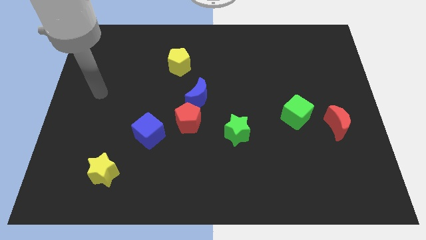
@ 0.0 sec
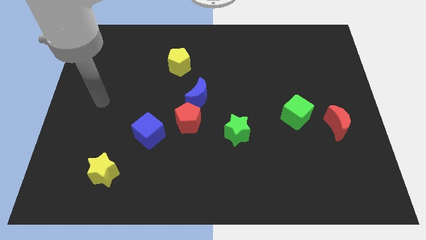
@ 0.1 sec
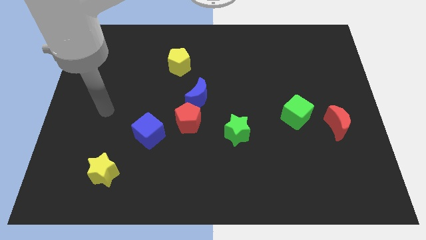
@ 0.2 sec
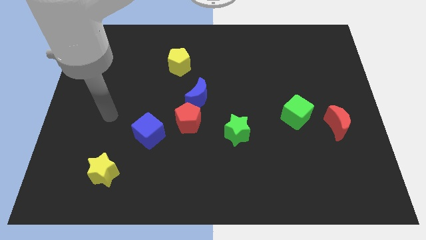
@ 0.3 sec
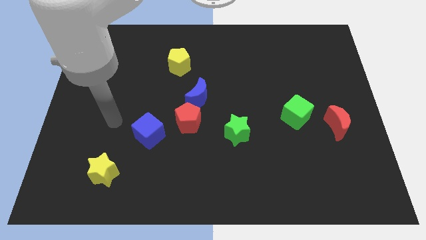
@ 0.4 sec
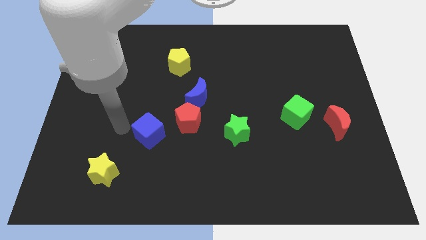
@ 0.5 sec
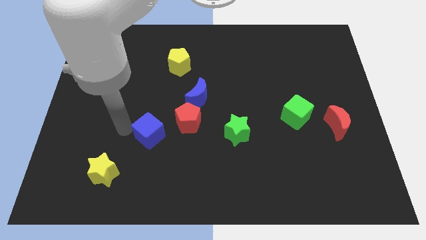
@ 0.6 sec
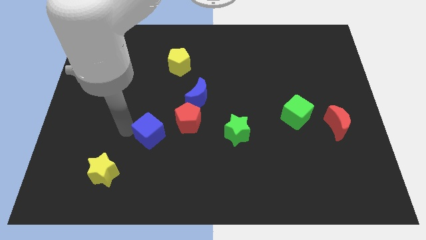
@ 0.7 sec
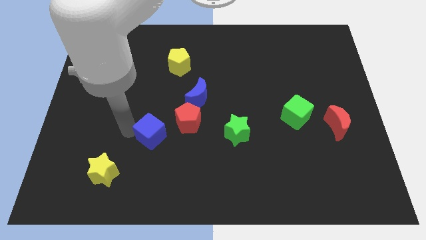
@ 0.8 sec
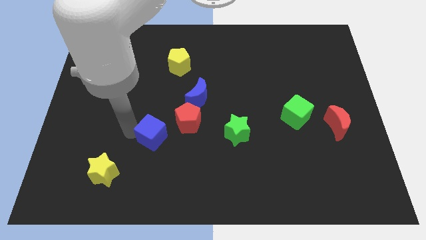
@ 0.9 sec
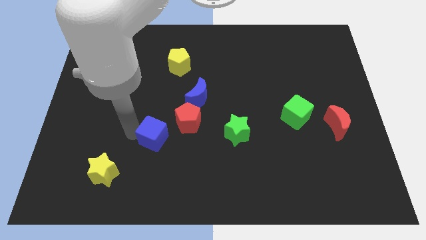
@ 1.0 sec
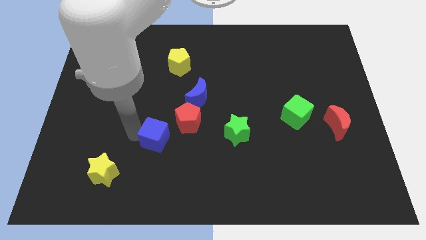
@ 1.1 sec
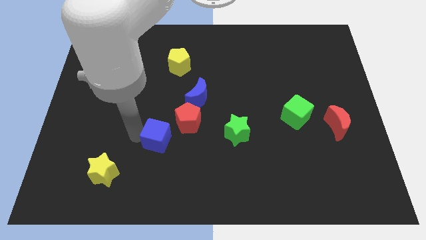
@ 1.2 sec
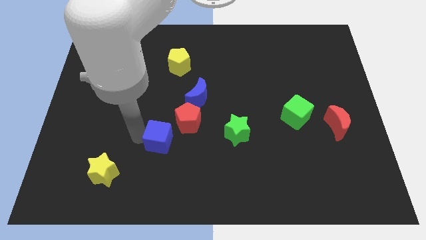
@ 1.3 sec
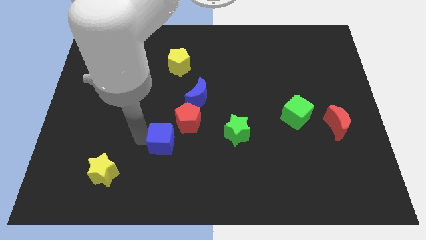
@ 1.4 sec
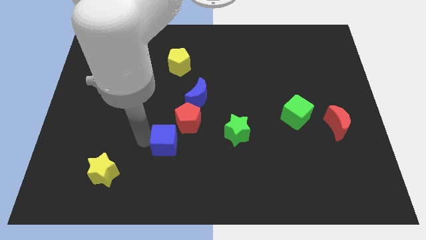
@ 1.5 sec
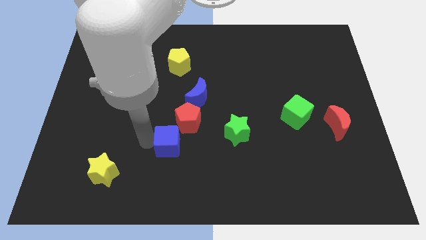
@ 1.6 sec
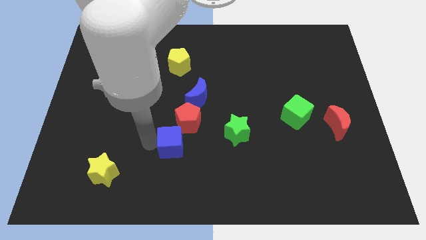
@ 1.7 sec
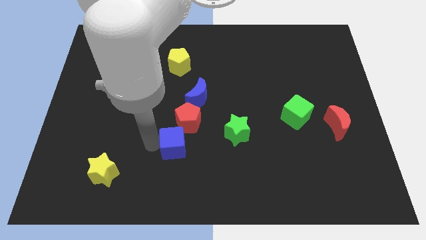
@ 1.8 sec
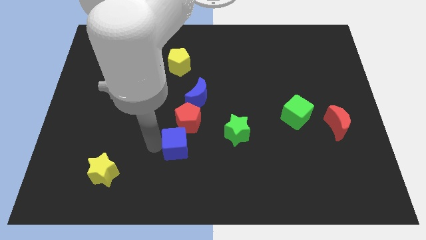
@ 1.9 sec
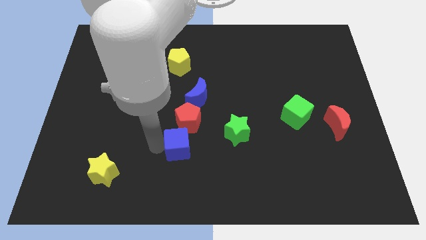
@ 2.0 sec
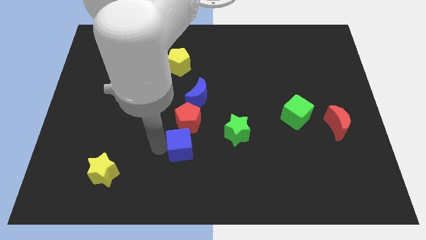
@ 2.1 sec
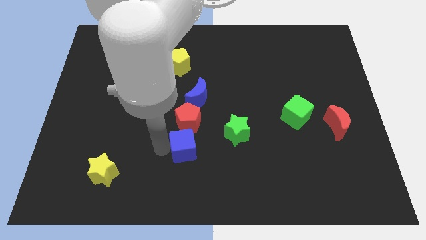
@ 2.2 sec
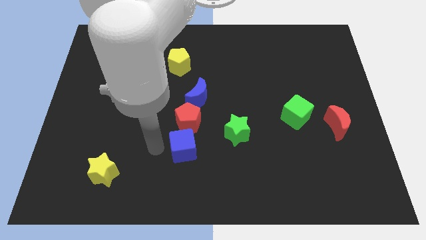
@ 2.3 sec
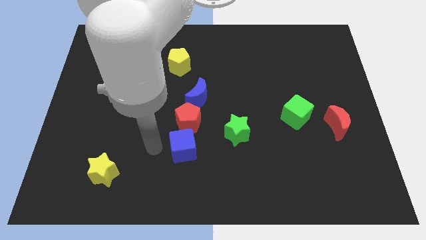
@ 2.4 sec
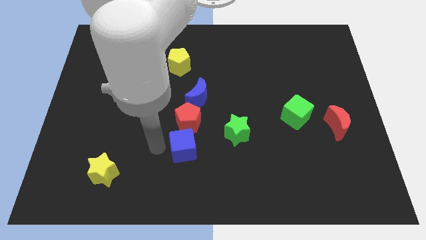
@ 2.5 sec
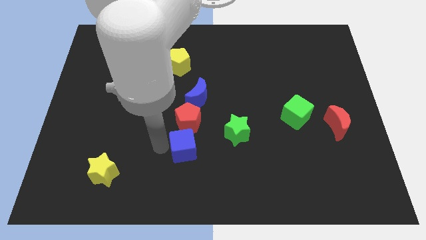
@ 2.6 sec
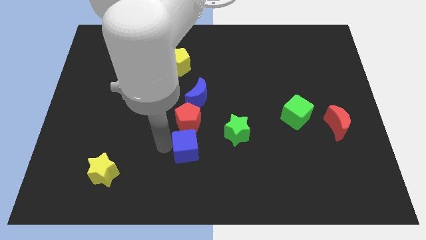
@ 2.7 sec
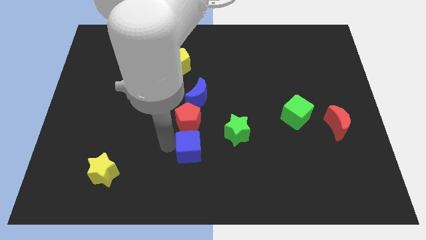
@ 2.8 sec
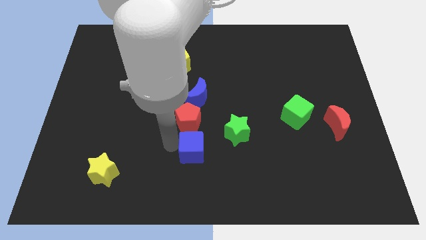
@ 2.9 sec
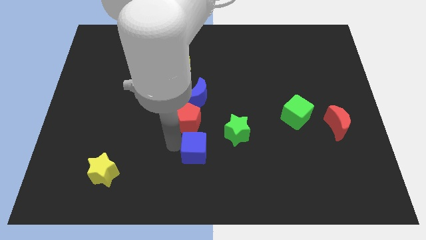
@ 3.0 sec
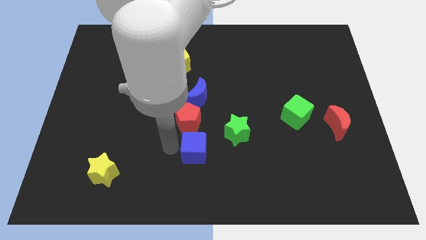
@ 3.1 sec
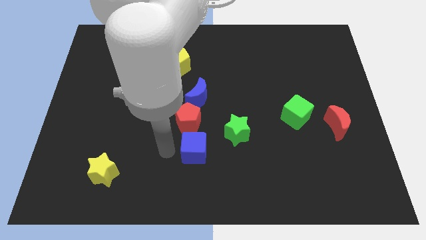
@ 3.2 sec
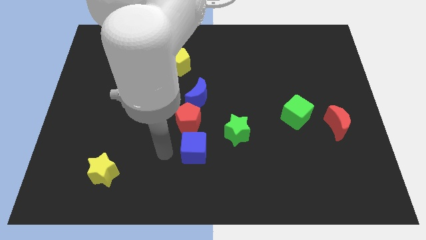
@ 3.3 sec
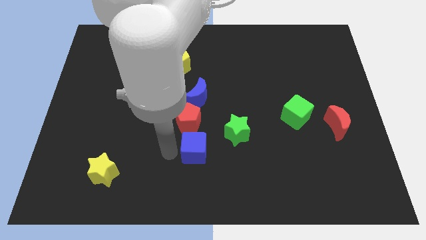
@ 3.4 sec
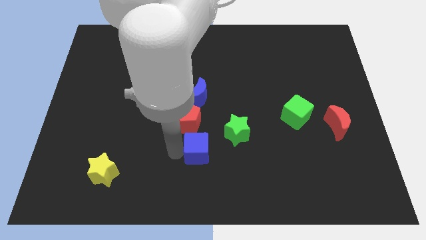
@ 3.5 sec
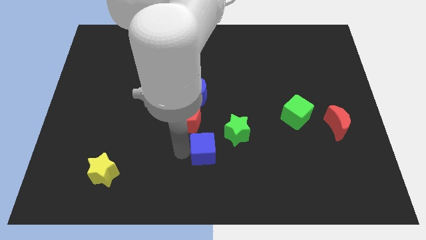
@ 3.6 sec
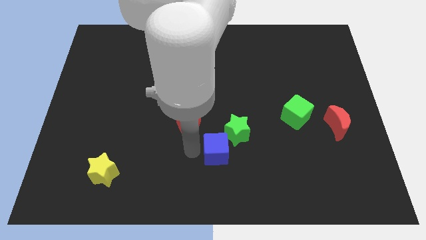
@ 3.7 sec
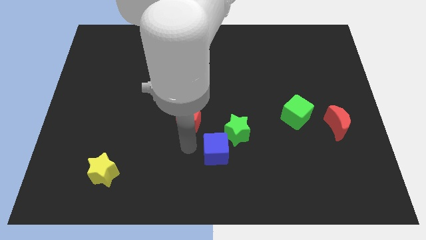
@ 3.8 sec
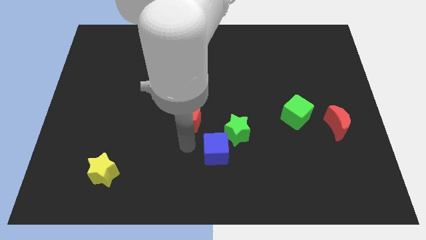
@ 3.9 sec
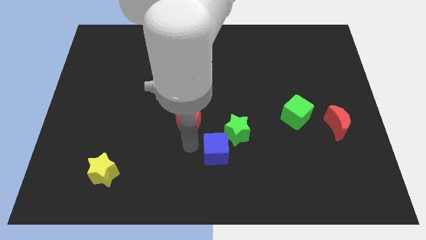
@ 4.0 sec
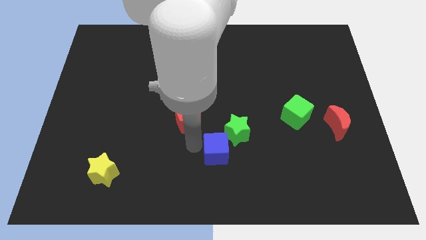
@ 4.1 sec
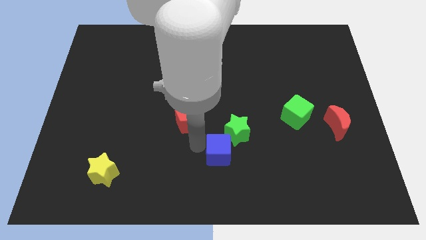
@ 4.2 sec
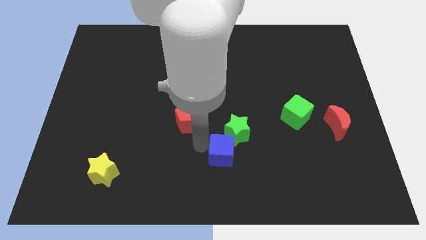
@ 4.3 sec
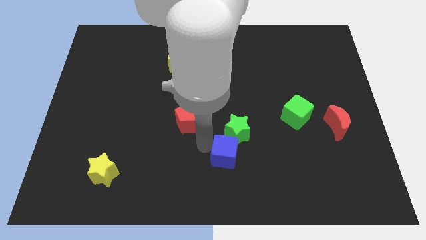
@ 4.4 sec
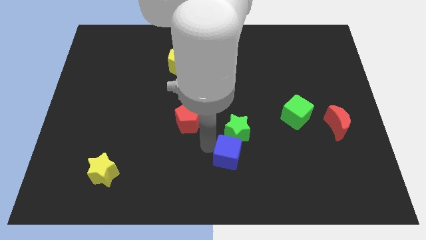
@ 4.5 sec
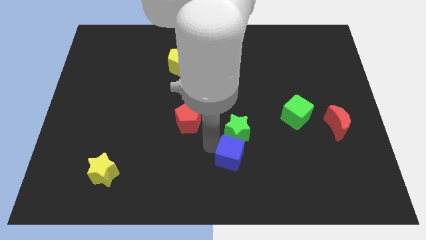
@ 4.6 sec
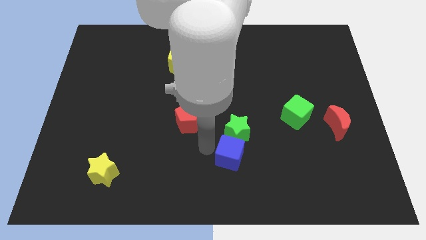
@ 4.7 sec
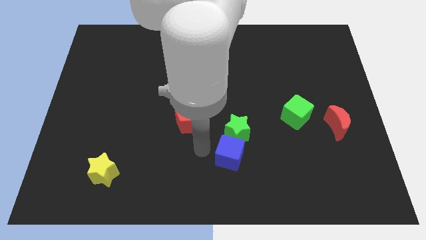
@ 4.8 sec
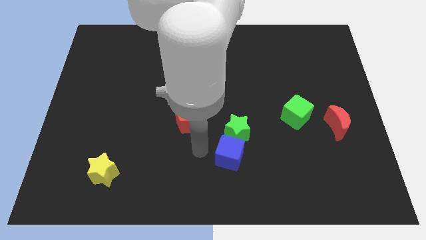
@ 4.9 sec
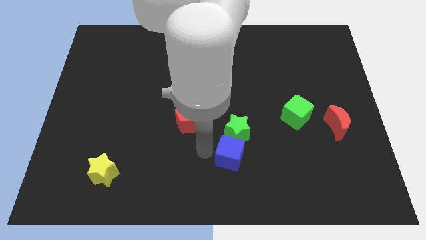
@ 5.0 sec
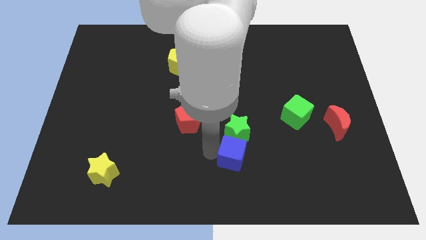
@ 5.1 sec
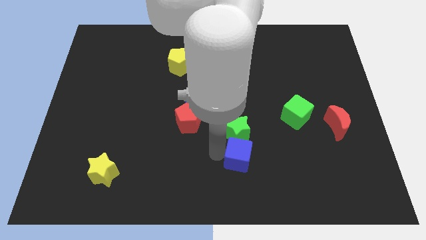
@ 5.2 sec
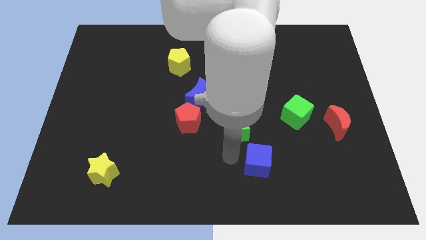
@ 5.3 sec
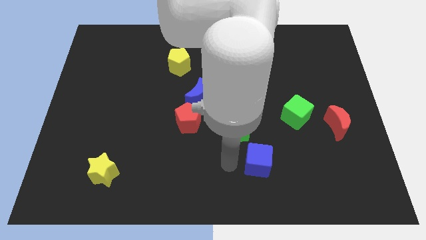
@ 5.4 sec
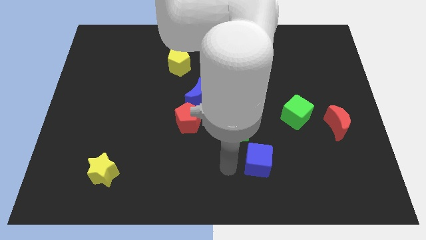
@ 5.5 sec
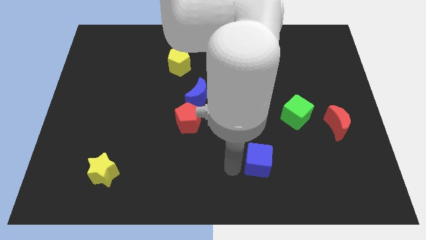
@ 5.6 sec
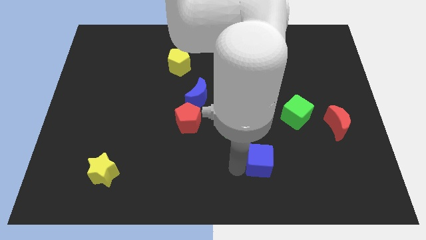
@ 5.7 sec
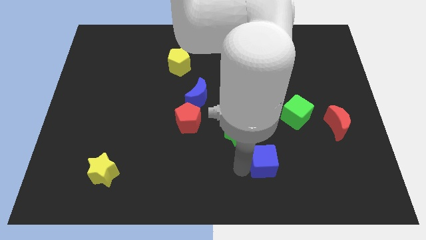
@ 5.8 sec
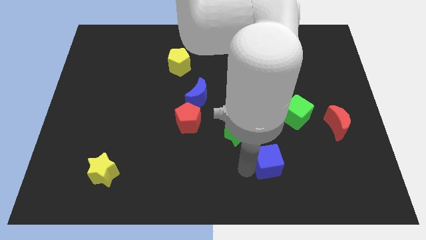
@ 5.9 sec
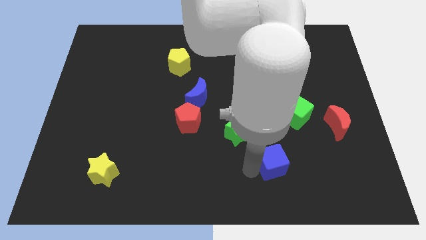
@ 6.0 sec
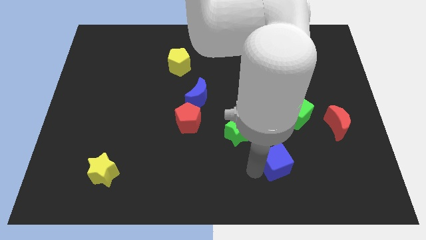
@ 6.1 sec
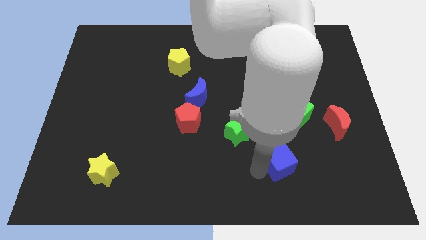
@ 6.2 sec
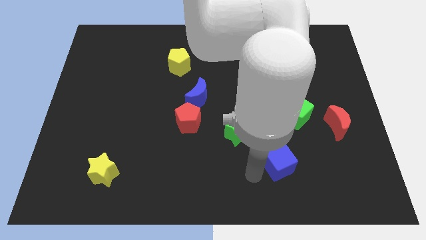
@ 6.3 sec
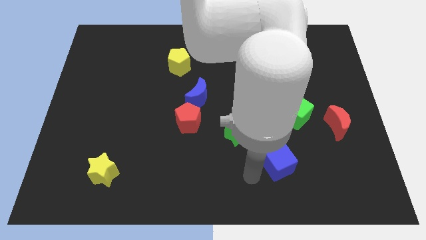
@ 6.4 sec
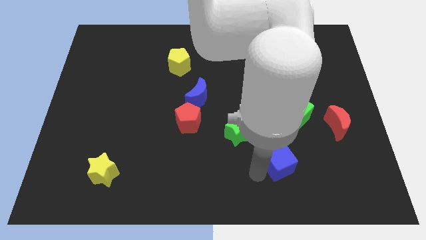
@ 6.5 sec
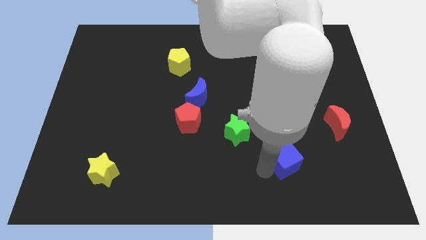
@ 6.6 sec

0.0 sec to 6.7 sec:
slide the blue cube below the green cube

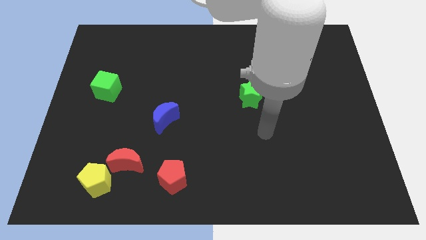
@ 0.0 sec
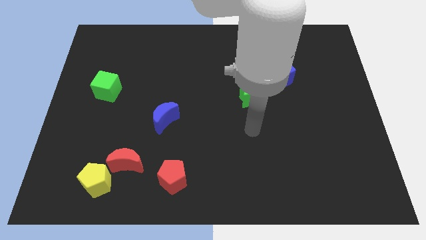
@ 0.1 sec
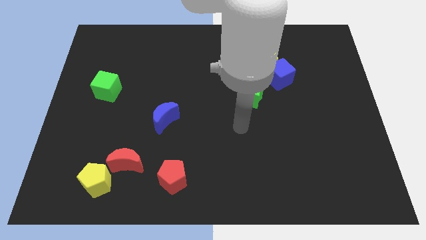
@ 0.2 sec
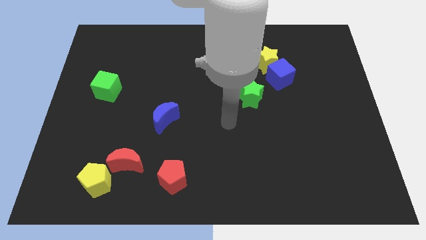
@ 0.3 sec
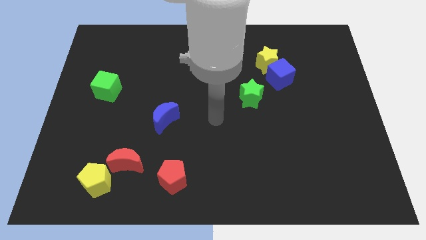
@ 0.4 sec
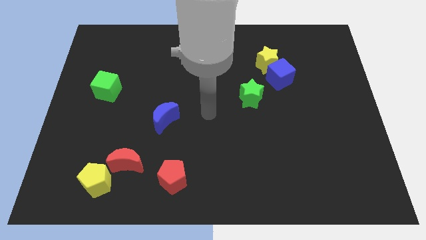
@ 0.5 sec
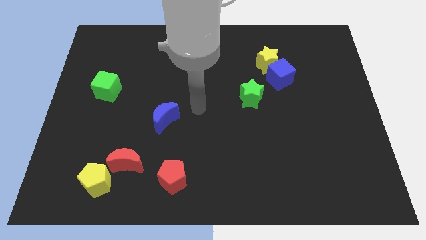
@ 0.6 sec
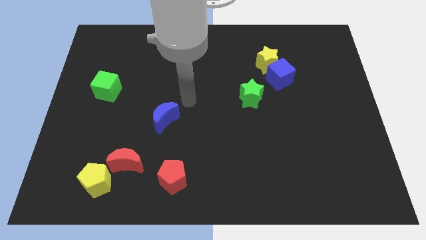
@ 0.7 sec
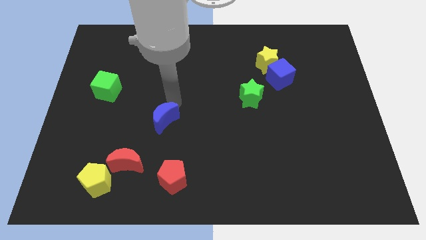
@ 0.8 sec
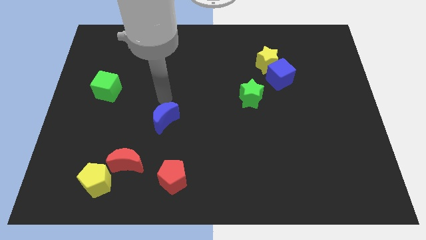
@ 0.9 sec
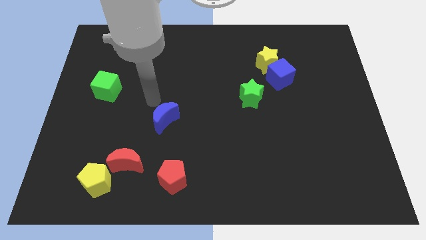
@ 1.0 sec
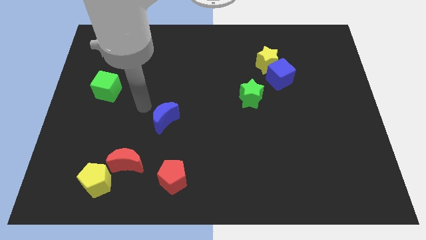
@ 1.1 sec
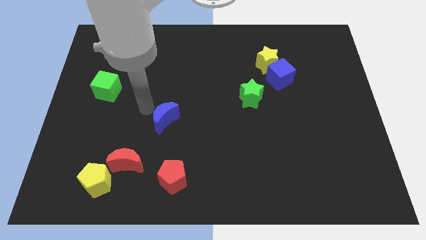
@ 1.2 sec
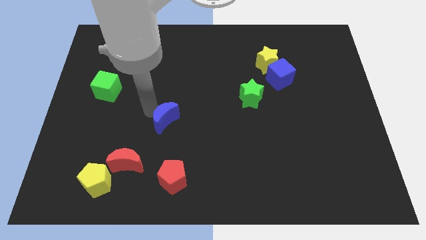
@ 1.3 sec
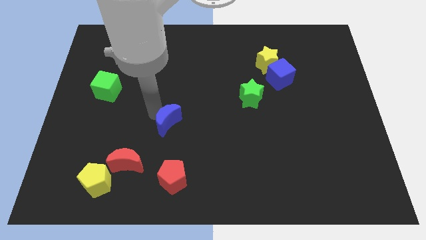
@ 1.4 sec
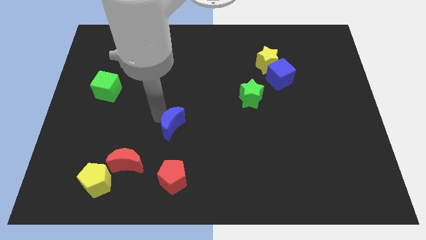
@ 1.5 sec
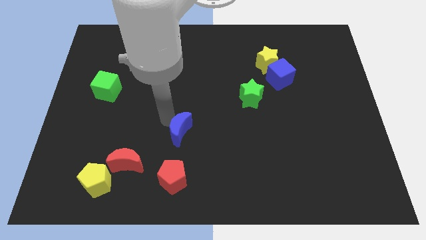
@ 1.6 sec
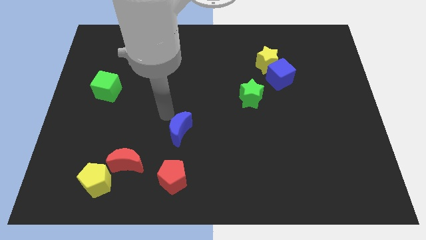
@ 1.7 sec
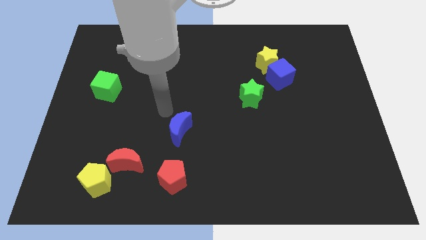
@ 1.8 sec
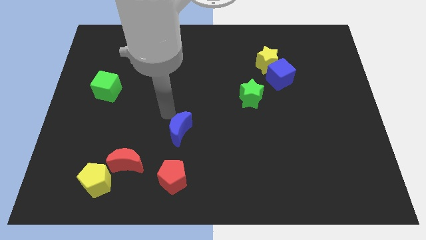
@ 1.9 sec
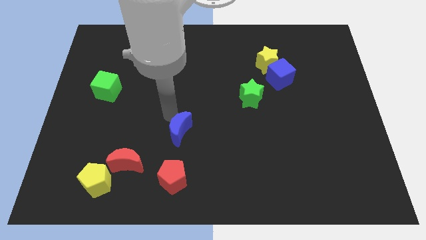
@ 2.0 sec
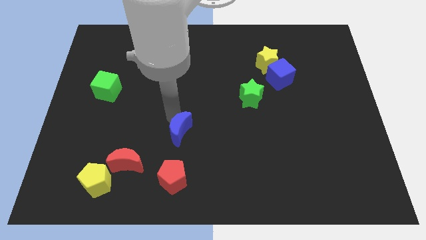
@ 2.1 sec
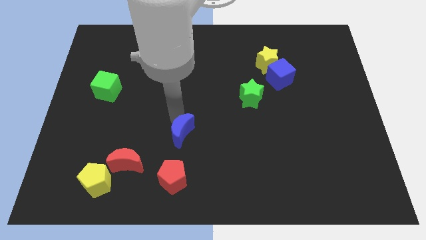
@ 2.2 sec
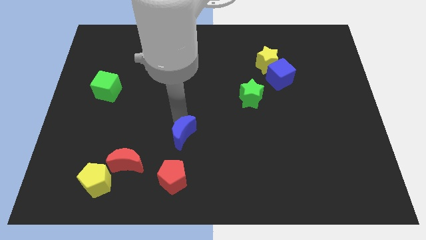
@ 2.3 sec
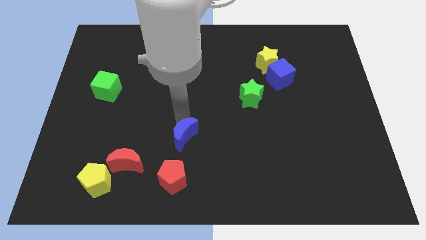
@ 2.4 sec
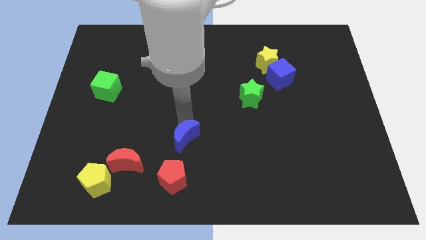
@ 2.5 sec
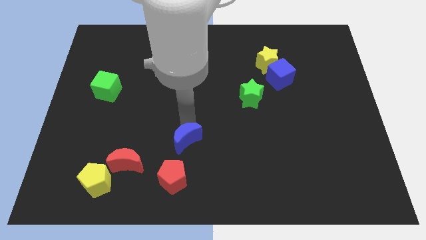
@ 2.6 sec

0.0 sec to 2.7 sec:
move the blue moon to the top right of the red pentagon
